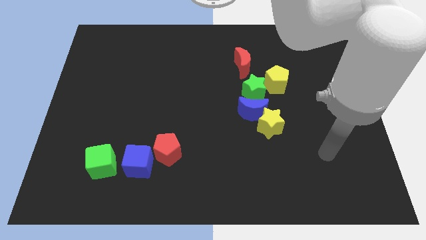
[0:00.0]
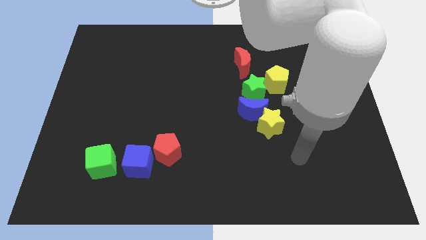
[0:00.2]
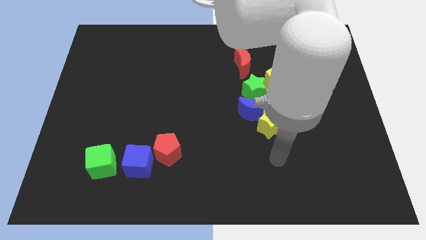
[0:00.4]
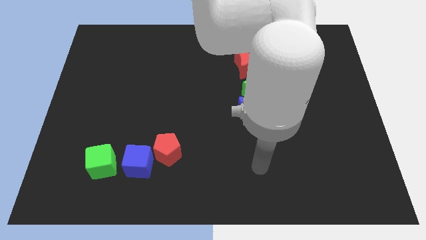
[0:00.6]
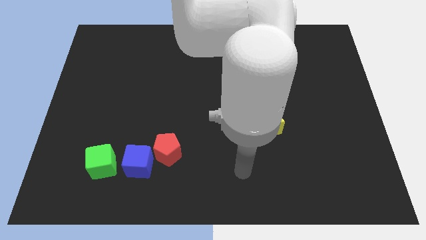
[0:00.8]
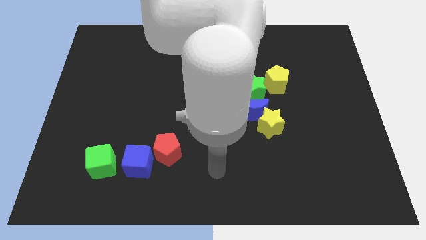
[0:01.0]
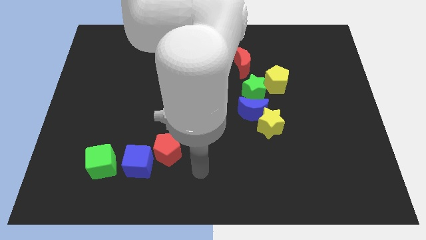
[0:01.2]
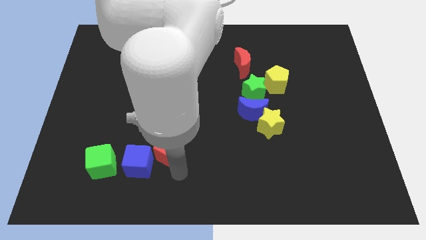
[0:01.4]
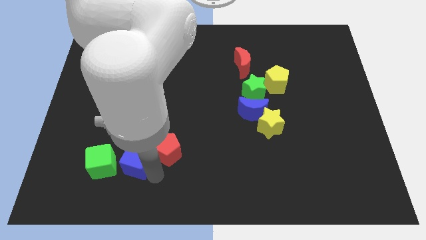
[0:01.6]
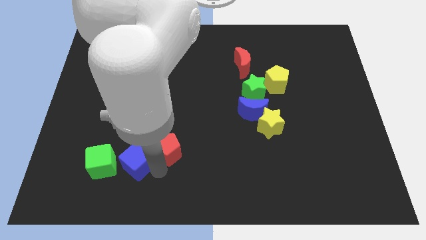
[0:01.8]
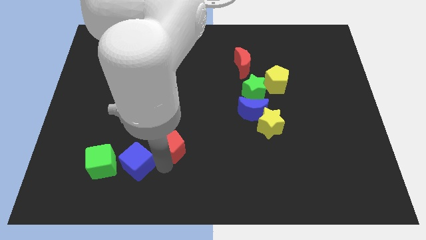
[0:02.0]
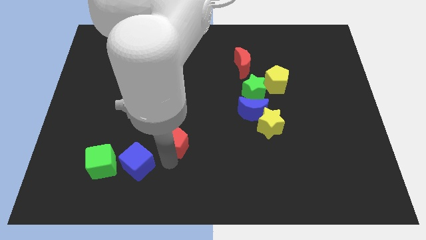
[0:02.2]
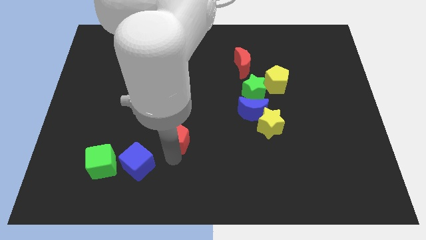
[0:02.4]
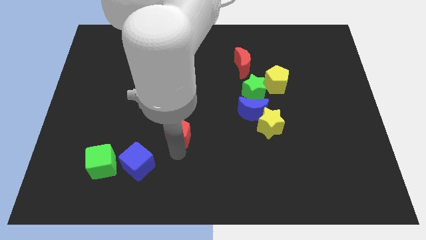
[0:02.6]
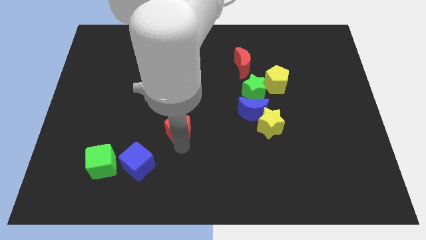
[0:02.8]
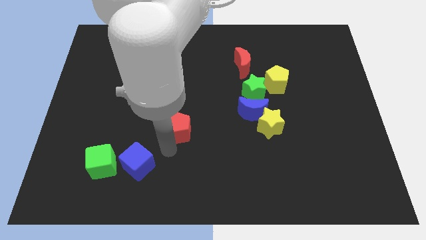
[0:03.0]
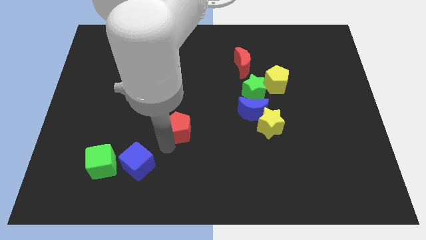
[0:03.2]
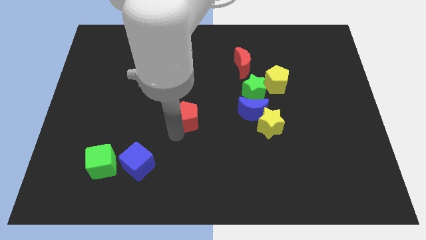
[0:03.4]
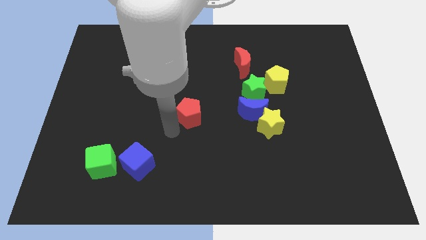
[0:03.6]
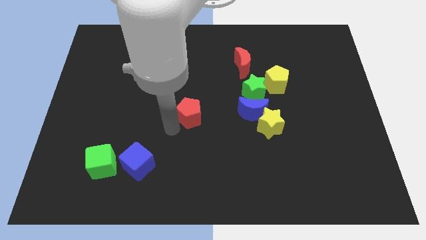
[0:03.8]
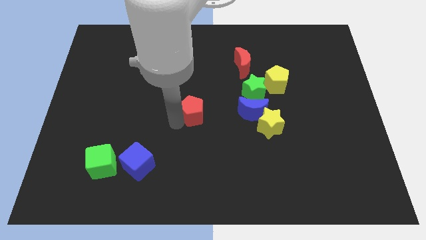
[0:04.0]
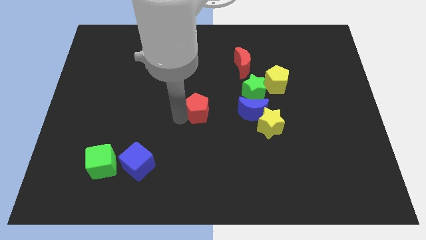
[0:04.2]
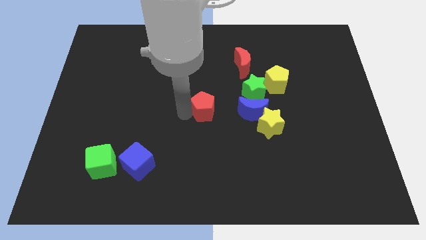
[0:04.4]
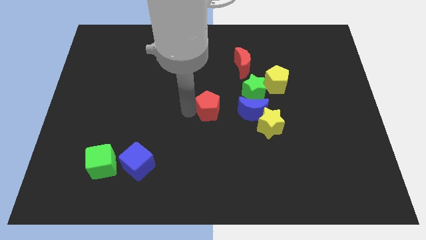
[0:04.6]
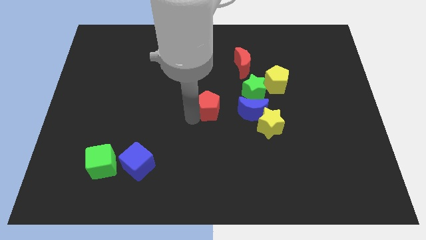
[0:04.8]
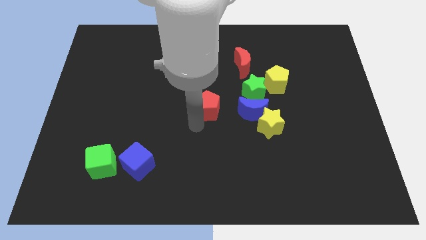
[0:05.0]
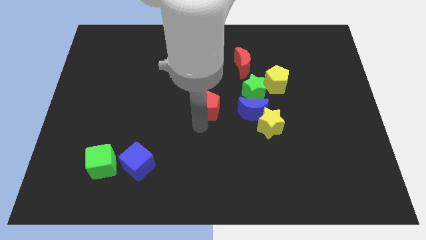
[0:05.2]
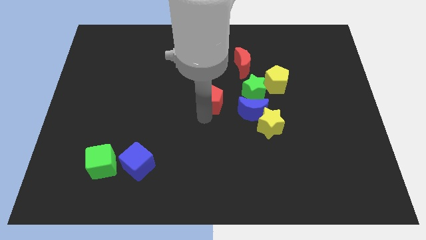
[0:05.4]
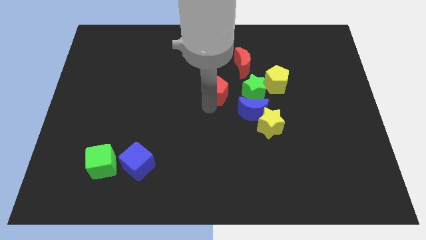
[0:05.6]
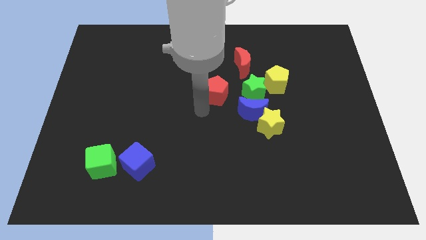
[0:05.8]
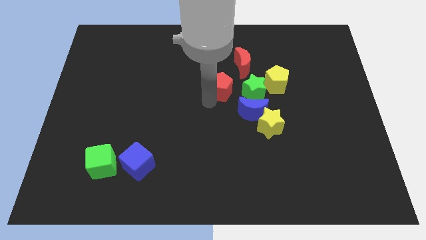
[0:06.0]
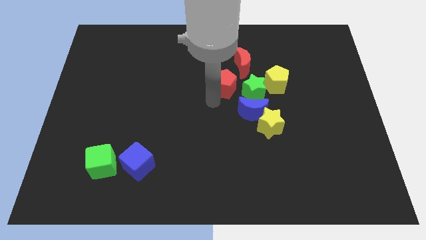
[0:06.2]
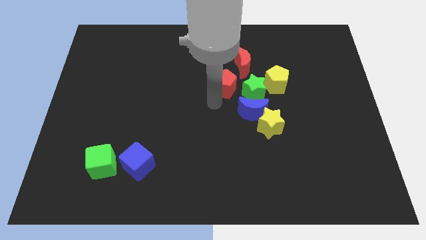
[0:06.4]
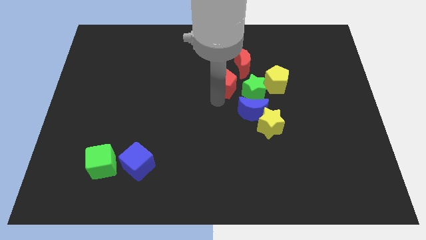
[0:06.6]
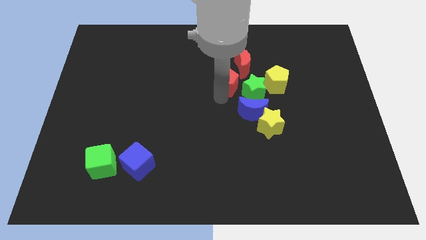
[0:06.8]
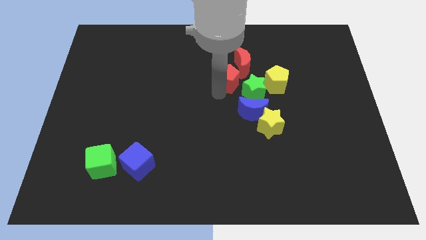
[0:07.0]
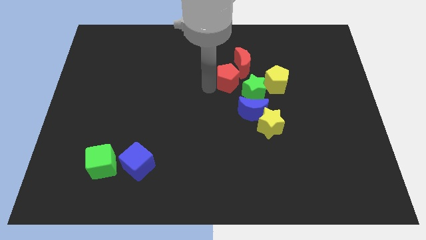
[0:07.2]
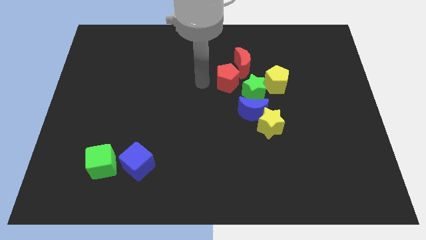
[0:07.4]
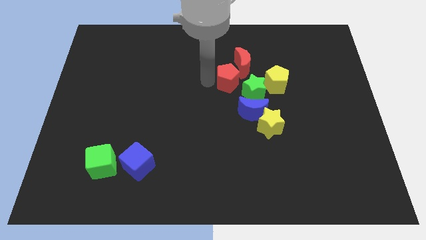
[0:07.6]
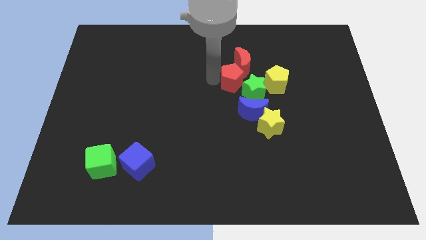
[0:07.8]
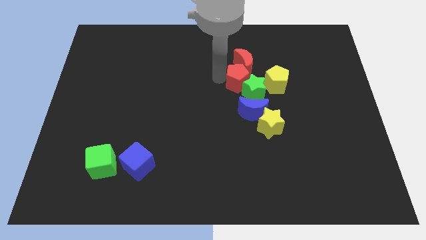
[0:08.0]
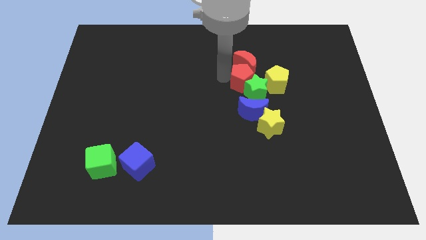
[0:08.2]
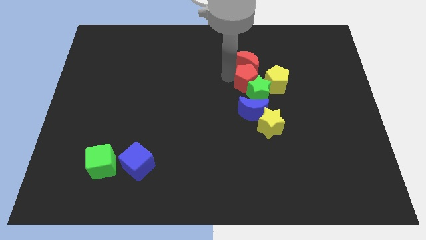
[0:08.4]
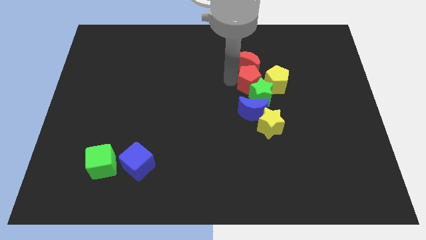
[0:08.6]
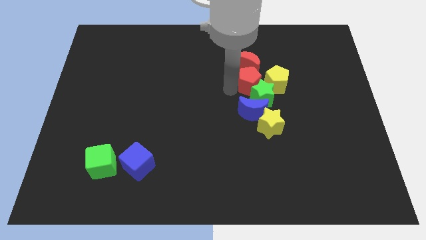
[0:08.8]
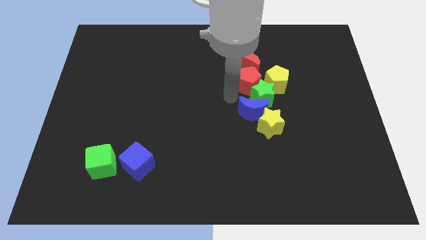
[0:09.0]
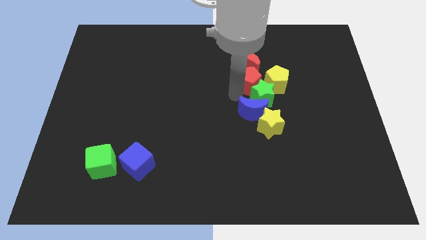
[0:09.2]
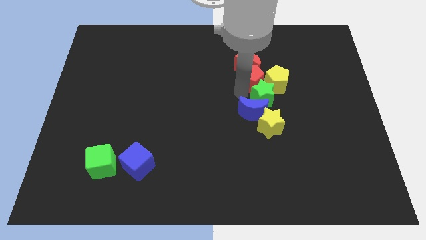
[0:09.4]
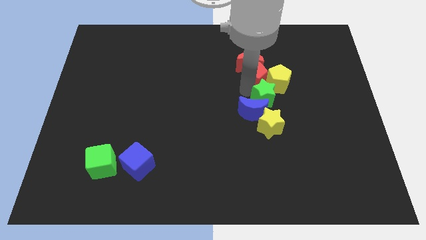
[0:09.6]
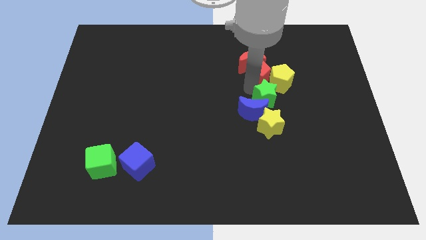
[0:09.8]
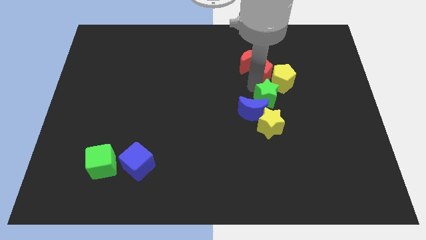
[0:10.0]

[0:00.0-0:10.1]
push the red pentagon to the right side of the red moon

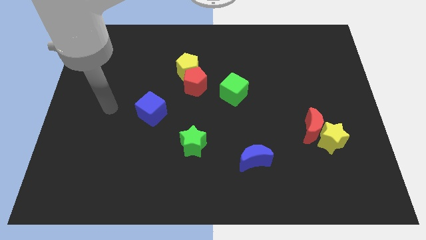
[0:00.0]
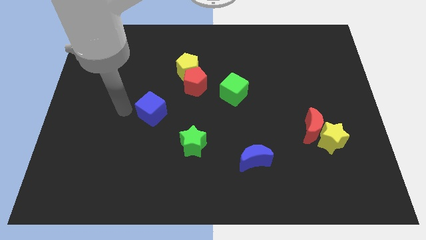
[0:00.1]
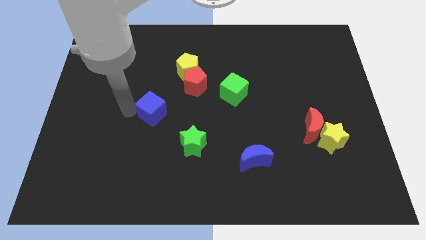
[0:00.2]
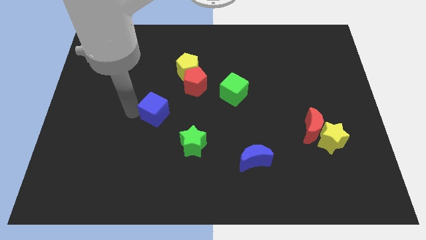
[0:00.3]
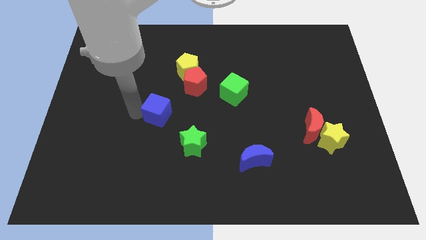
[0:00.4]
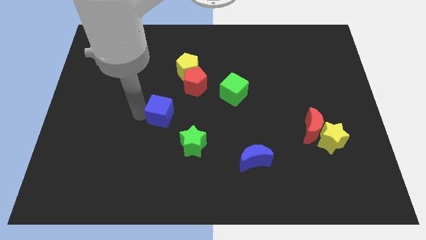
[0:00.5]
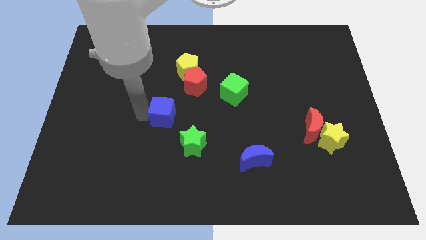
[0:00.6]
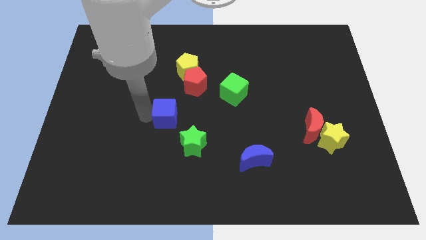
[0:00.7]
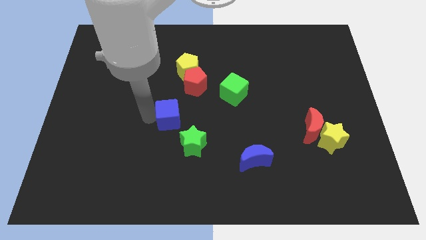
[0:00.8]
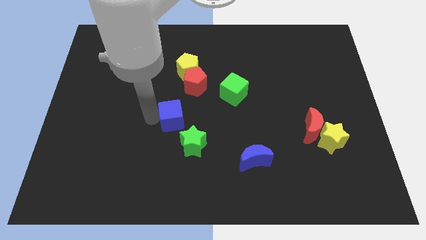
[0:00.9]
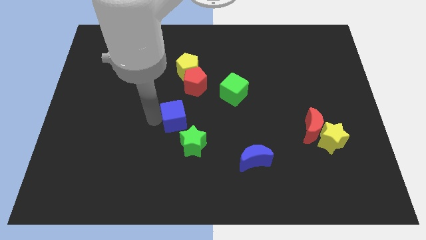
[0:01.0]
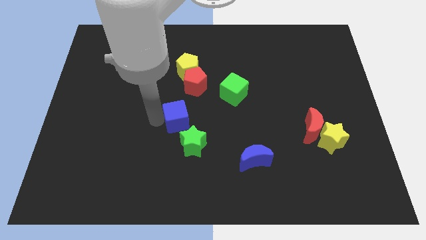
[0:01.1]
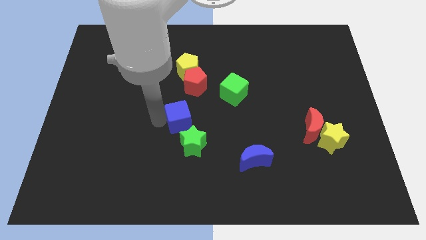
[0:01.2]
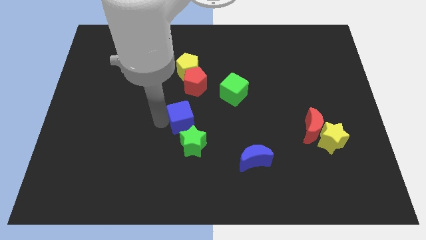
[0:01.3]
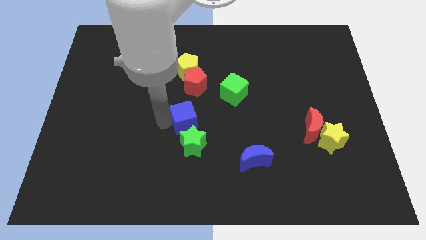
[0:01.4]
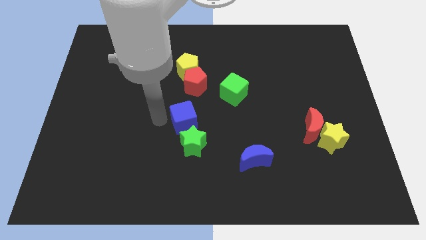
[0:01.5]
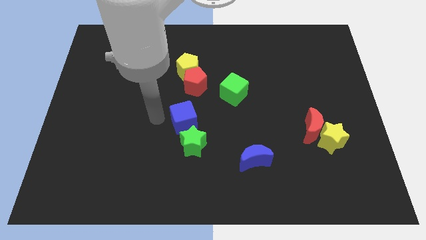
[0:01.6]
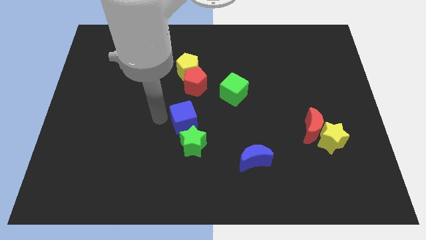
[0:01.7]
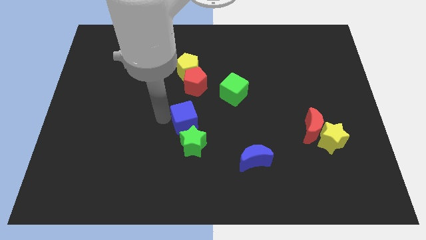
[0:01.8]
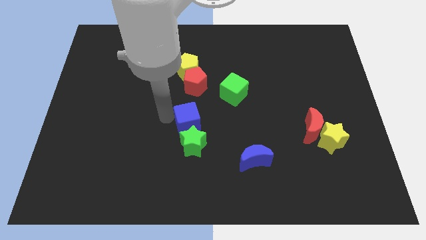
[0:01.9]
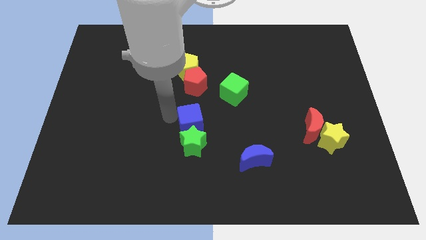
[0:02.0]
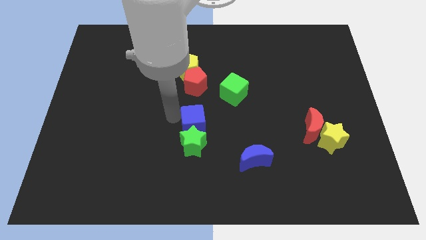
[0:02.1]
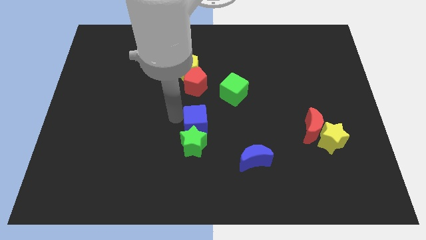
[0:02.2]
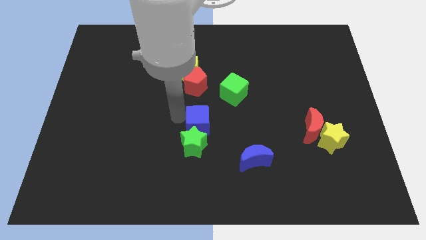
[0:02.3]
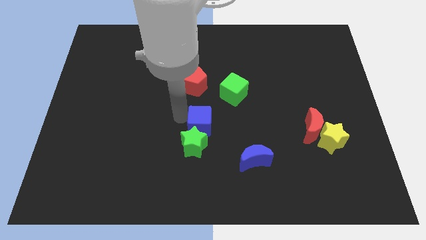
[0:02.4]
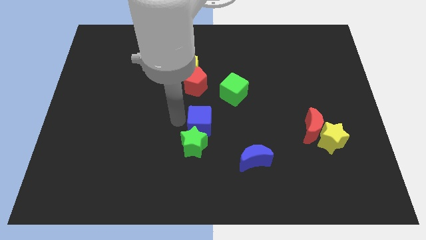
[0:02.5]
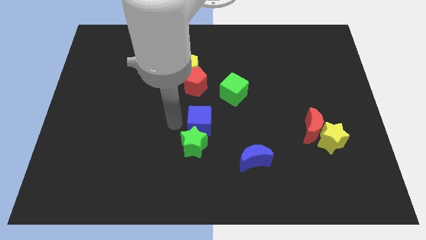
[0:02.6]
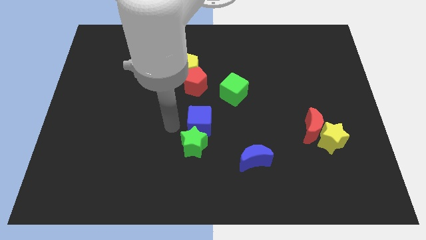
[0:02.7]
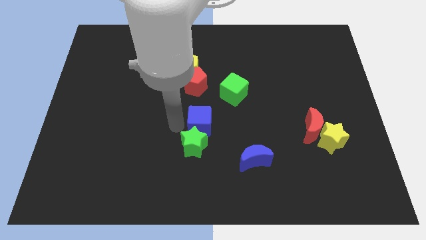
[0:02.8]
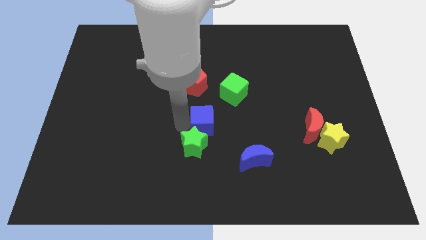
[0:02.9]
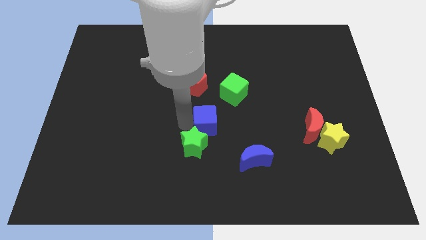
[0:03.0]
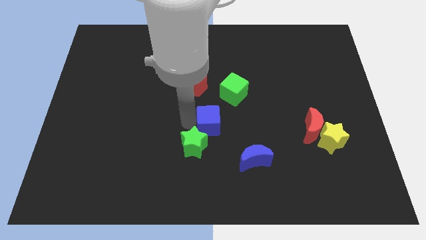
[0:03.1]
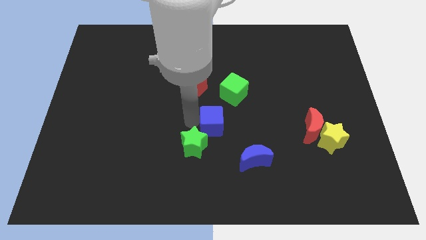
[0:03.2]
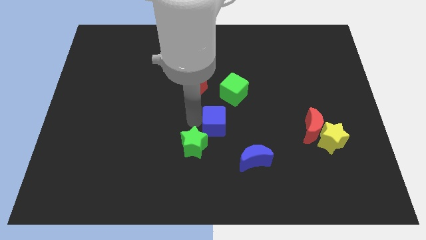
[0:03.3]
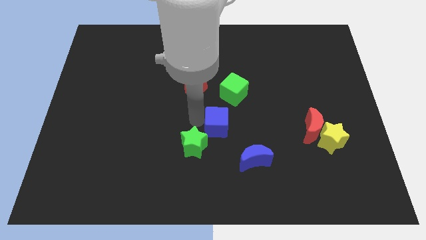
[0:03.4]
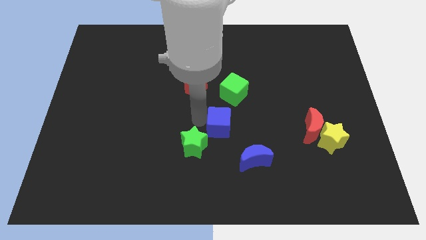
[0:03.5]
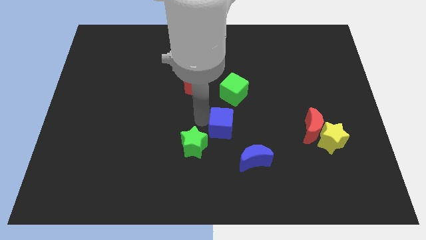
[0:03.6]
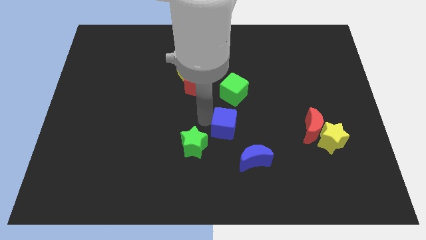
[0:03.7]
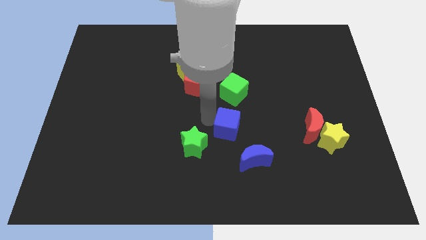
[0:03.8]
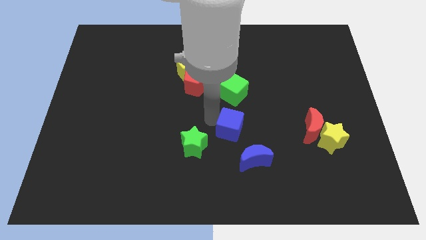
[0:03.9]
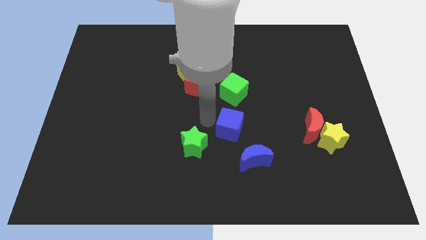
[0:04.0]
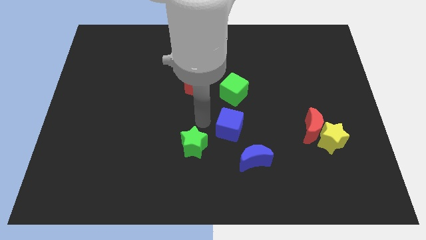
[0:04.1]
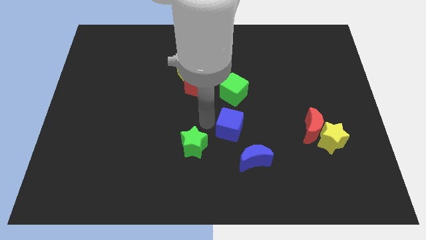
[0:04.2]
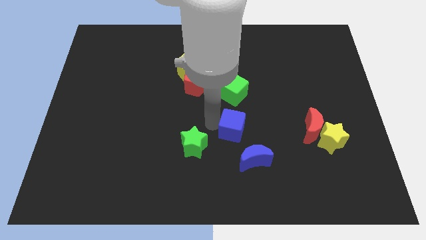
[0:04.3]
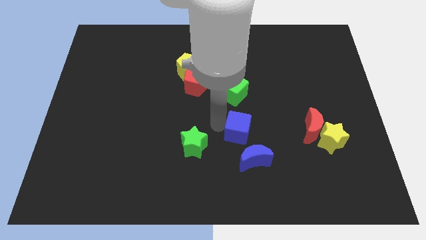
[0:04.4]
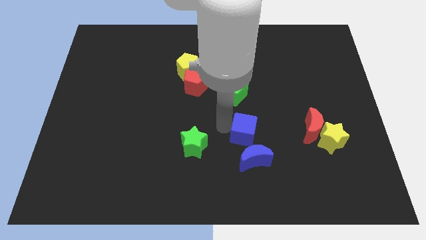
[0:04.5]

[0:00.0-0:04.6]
put the blue cube left of the red moon
